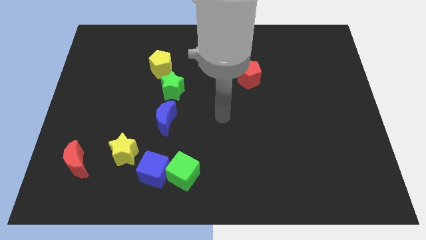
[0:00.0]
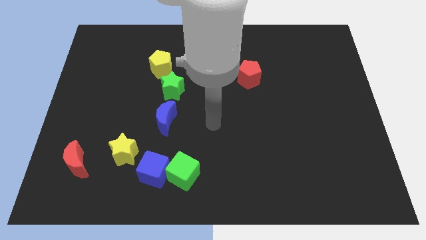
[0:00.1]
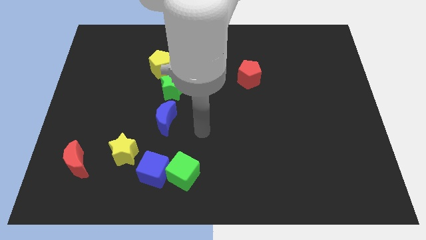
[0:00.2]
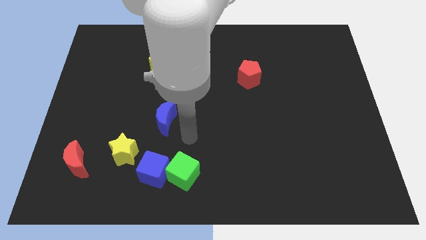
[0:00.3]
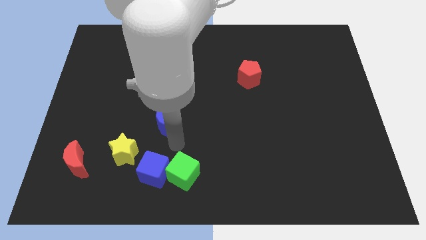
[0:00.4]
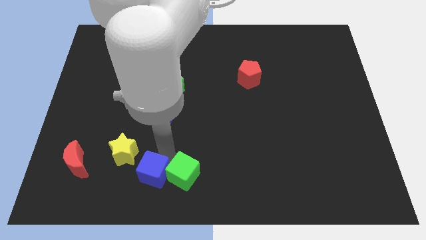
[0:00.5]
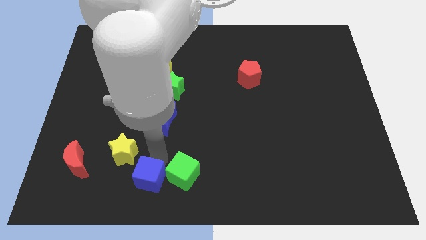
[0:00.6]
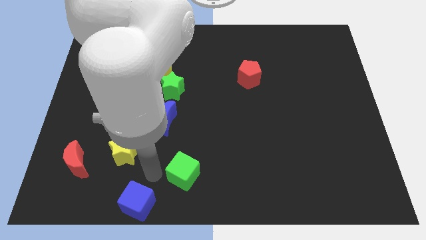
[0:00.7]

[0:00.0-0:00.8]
separate the green cube from the blue cube

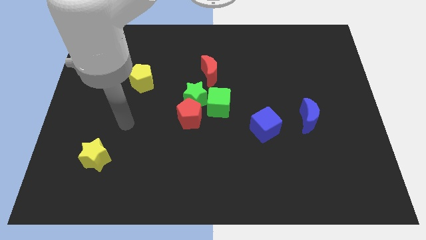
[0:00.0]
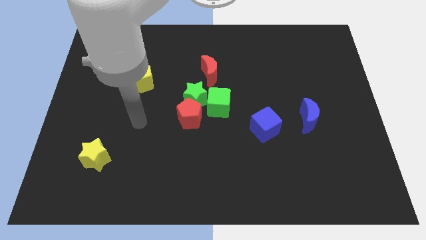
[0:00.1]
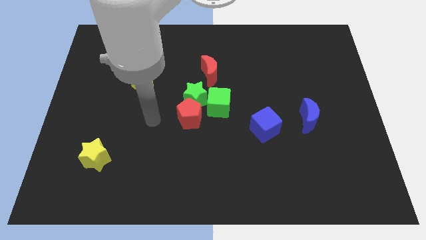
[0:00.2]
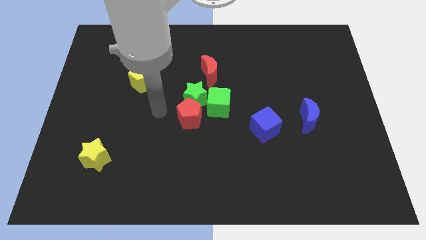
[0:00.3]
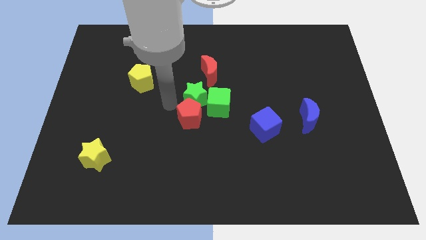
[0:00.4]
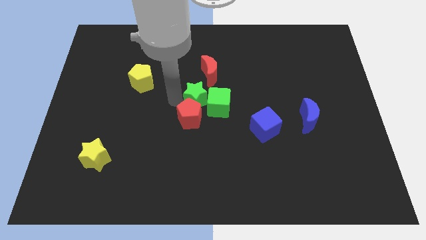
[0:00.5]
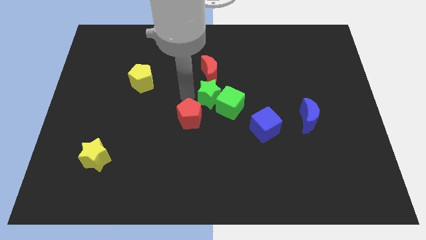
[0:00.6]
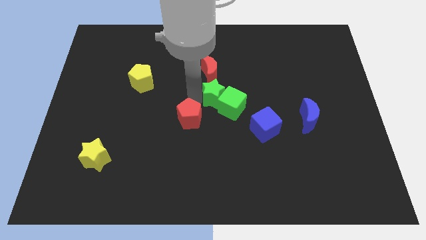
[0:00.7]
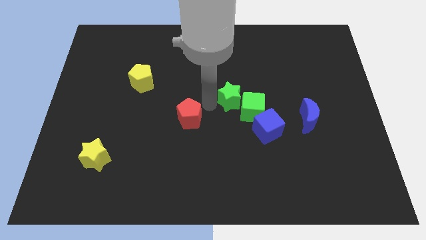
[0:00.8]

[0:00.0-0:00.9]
separate the red pentagon from the green star and green cube

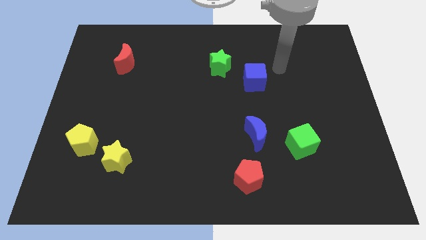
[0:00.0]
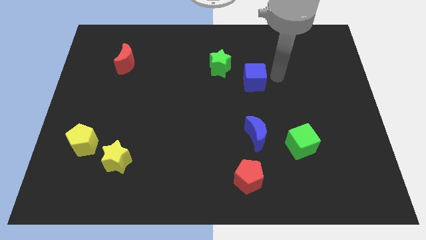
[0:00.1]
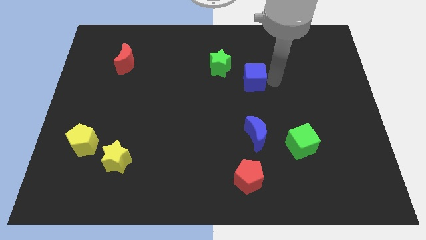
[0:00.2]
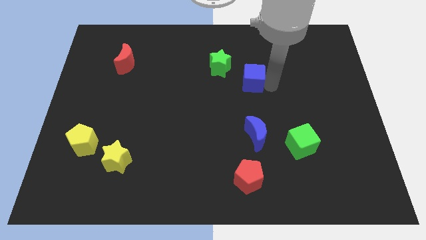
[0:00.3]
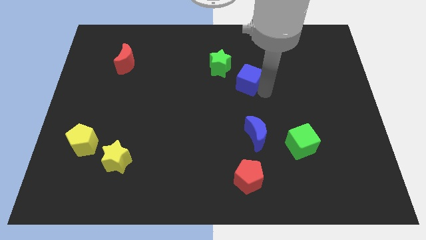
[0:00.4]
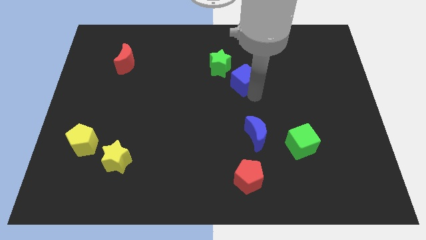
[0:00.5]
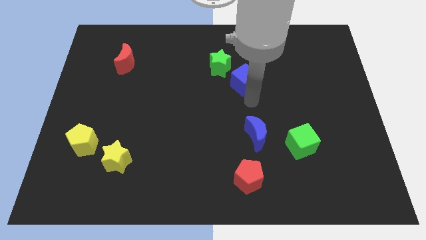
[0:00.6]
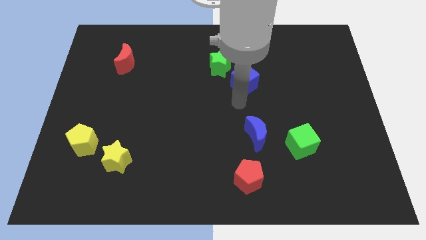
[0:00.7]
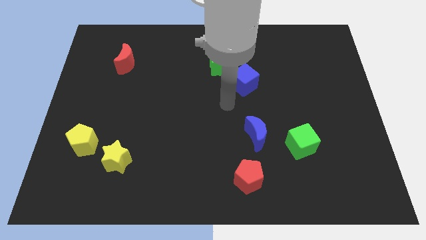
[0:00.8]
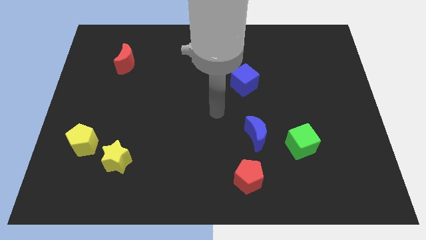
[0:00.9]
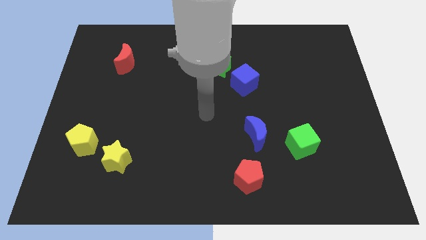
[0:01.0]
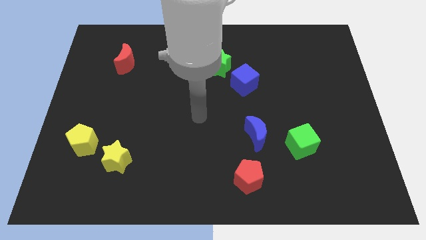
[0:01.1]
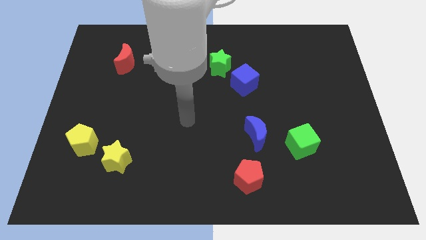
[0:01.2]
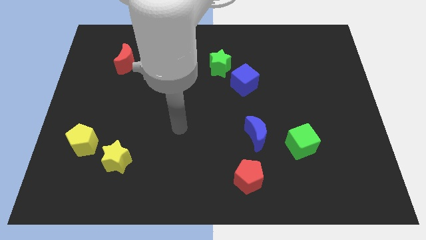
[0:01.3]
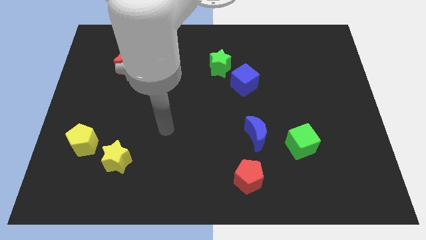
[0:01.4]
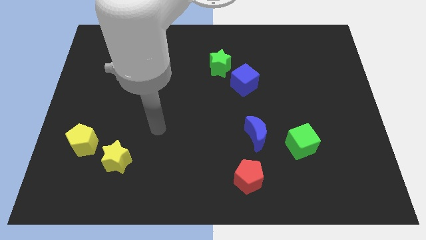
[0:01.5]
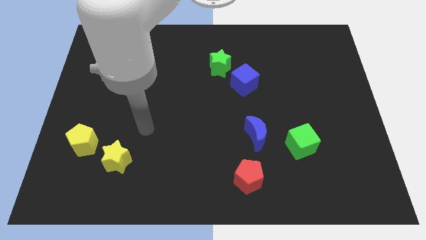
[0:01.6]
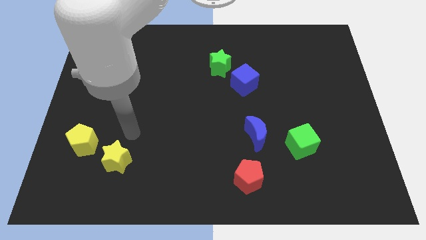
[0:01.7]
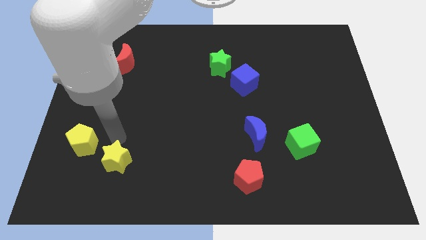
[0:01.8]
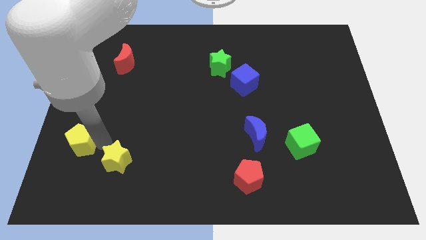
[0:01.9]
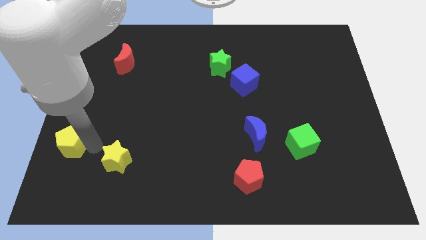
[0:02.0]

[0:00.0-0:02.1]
separate the yellow star from the yellow pentagon

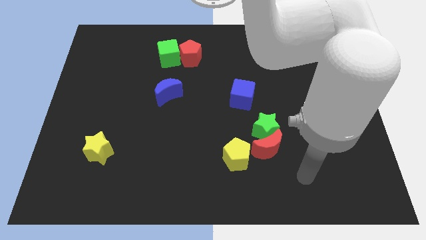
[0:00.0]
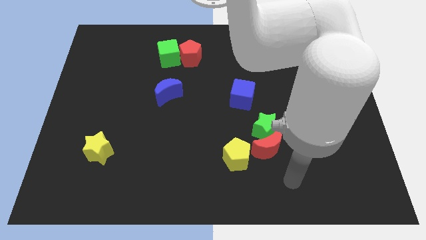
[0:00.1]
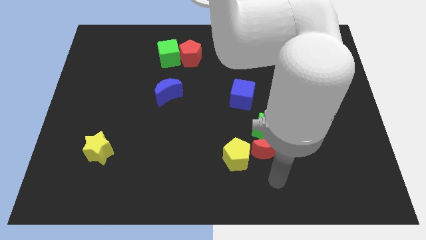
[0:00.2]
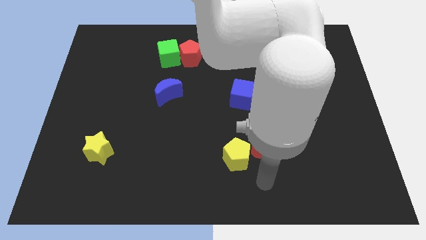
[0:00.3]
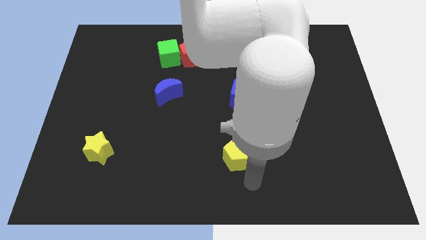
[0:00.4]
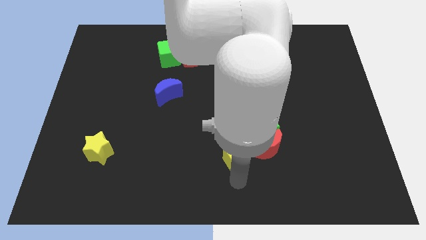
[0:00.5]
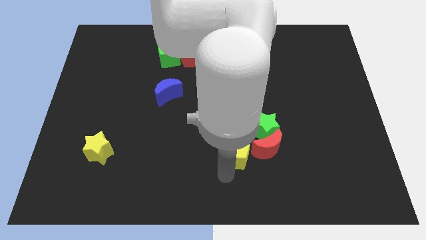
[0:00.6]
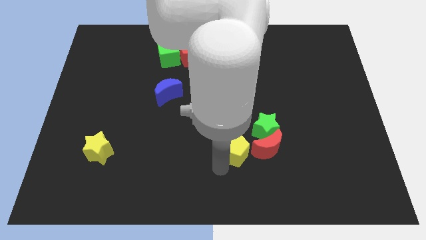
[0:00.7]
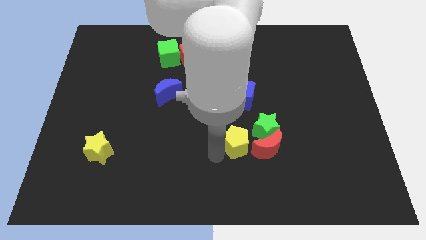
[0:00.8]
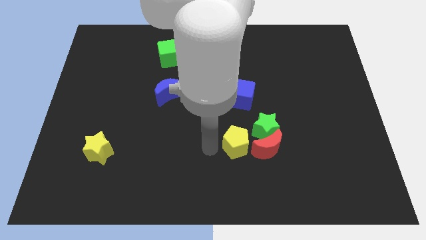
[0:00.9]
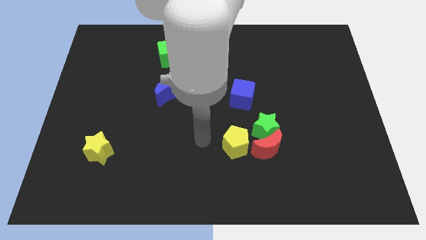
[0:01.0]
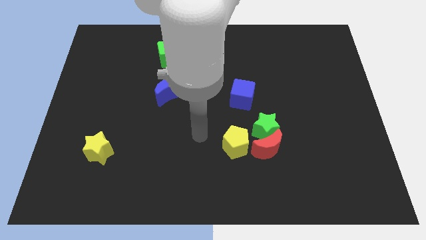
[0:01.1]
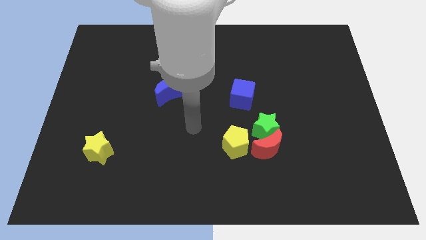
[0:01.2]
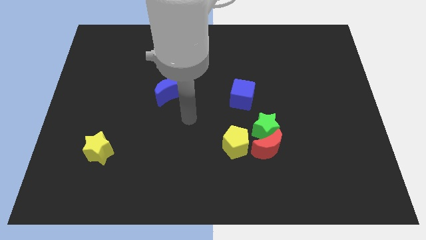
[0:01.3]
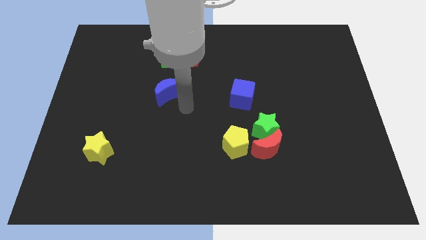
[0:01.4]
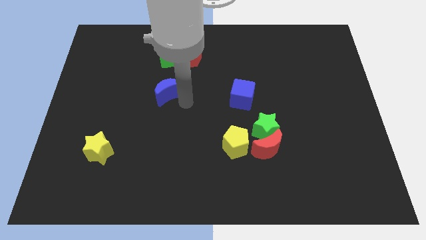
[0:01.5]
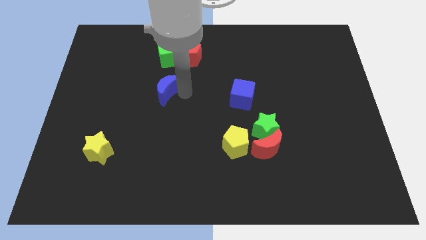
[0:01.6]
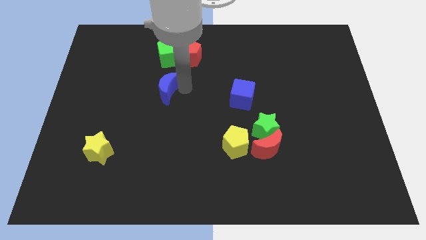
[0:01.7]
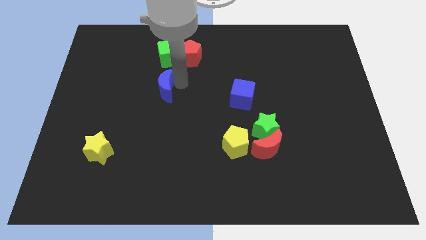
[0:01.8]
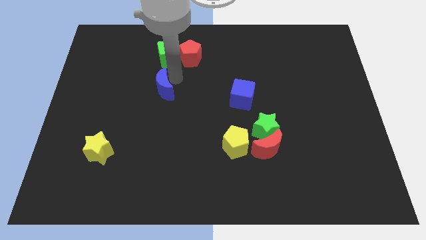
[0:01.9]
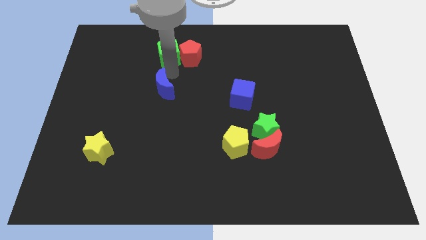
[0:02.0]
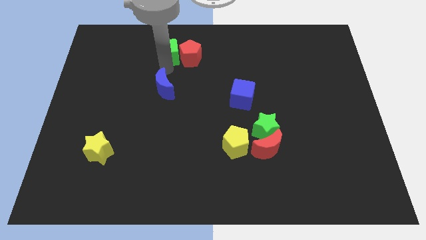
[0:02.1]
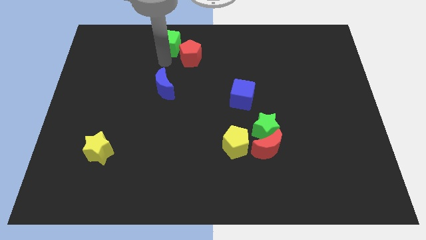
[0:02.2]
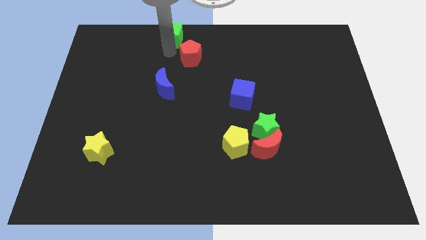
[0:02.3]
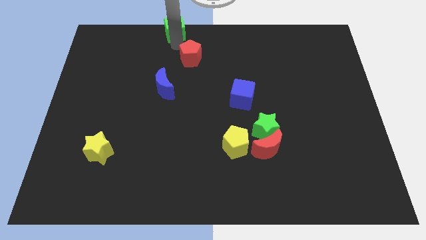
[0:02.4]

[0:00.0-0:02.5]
move the red pentagon away from the green cube

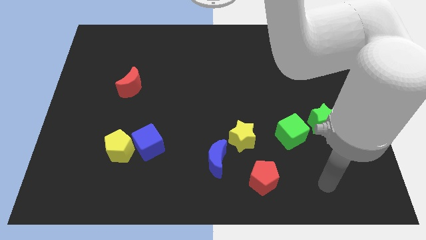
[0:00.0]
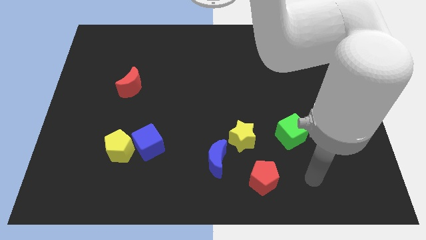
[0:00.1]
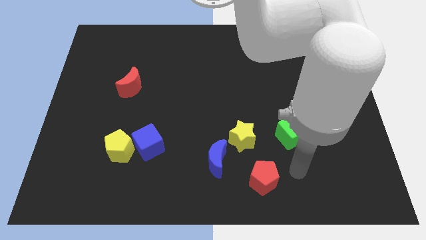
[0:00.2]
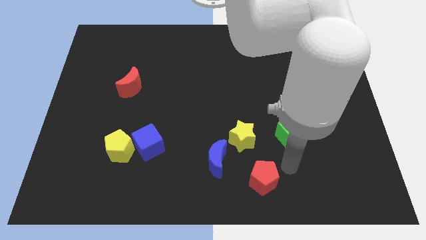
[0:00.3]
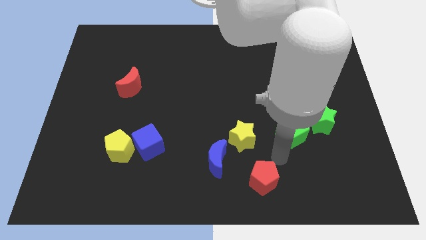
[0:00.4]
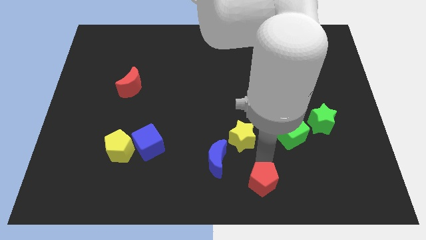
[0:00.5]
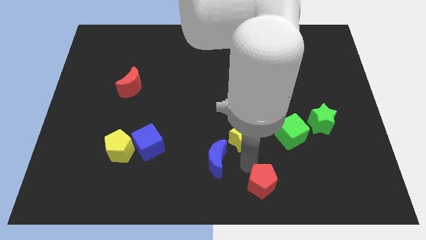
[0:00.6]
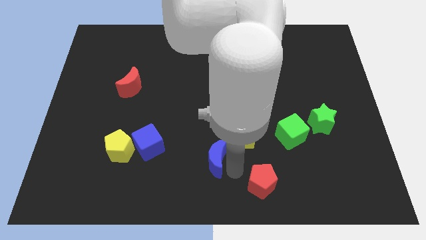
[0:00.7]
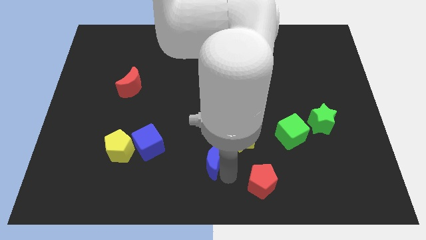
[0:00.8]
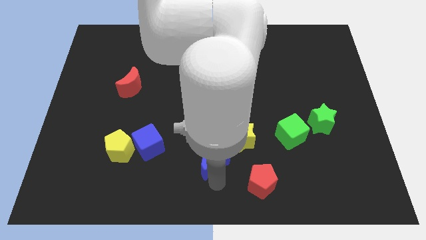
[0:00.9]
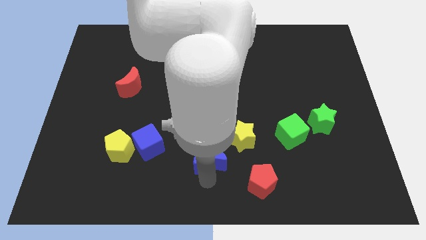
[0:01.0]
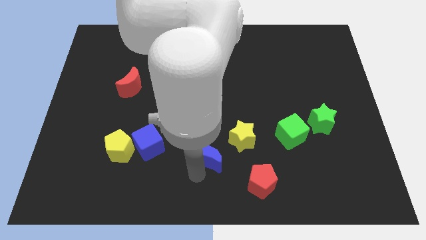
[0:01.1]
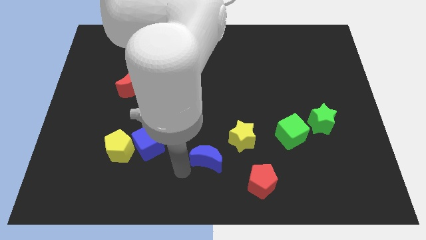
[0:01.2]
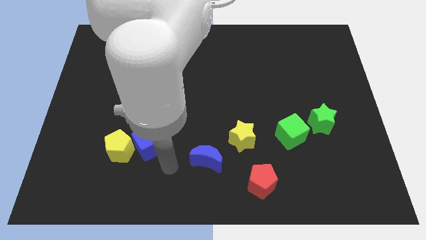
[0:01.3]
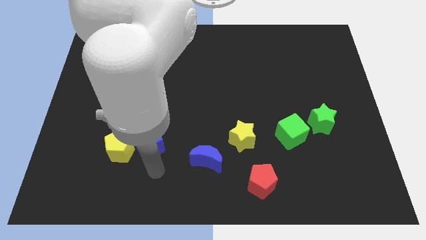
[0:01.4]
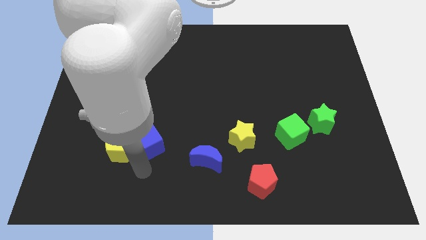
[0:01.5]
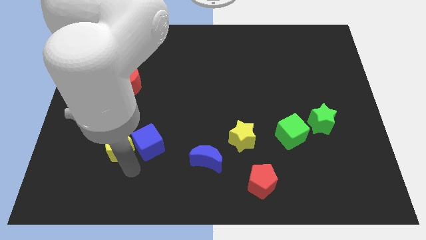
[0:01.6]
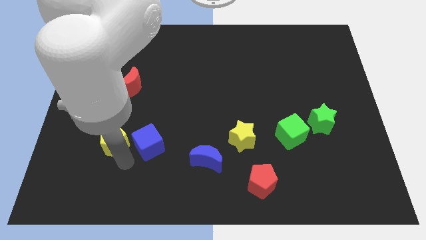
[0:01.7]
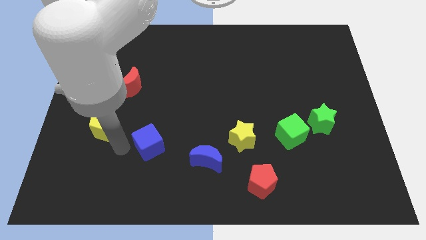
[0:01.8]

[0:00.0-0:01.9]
pull the blue cube apart from the yellow pentagon

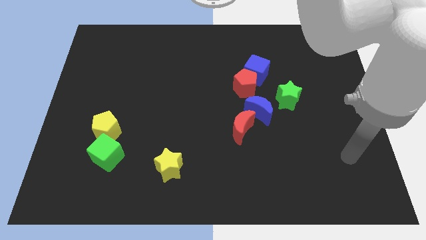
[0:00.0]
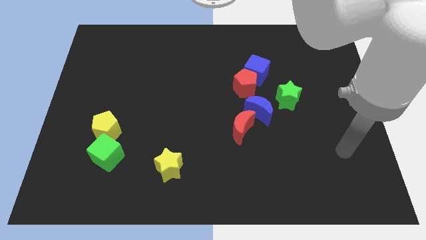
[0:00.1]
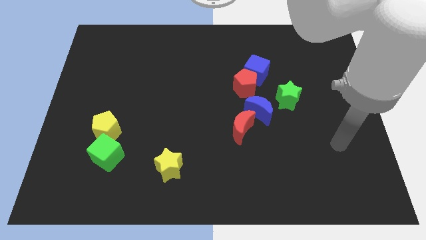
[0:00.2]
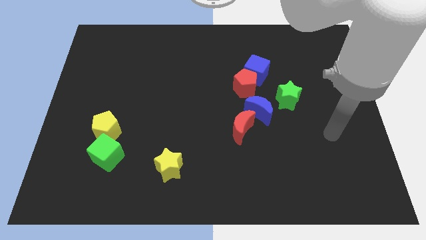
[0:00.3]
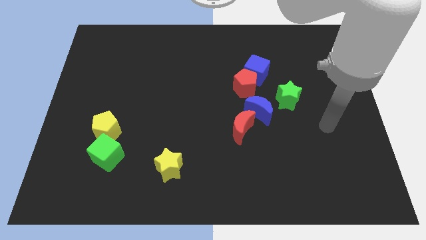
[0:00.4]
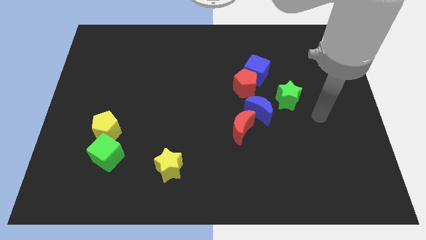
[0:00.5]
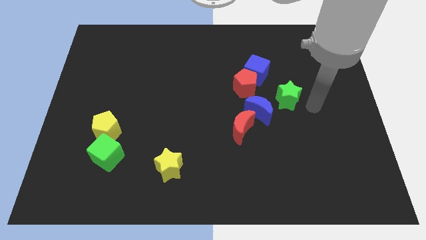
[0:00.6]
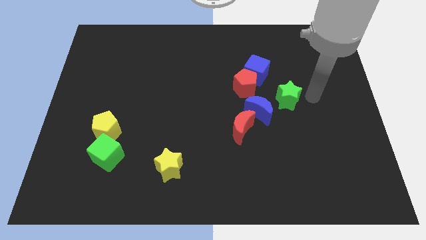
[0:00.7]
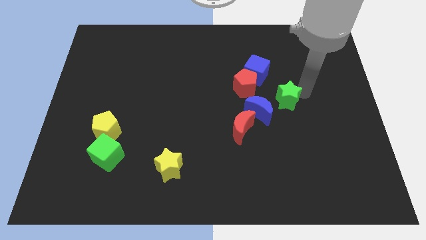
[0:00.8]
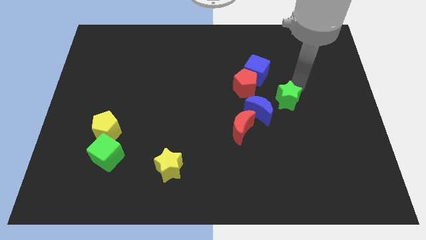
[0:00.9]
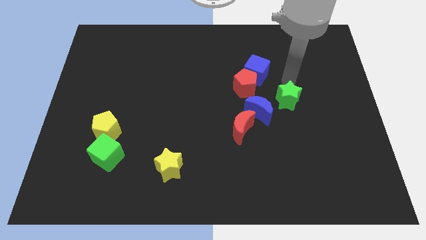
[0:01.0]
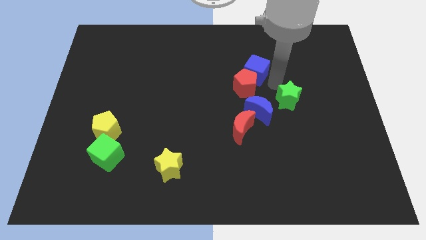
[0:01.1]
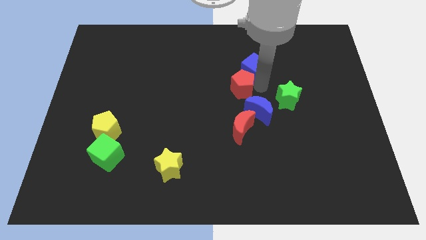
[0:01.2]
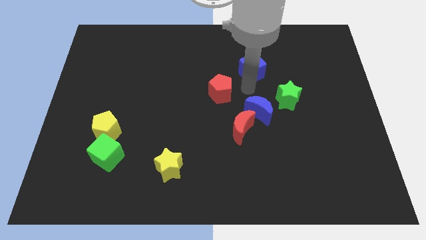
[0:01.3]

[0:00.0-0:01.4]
separate the blue cube from the red pentagon
